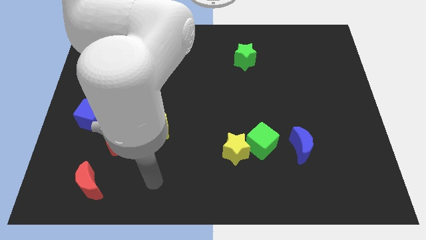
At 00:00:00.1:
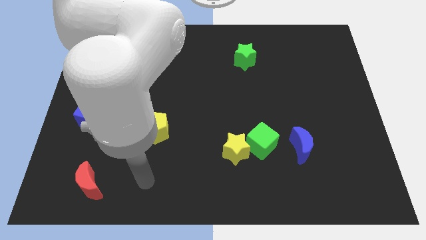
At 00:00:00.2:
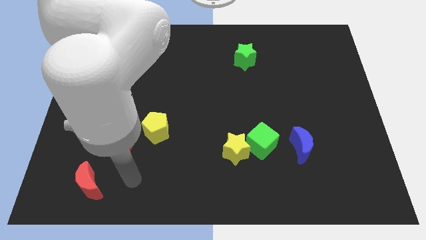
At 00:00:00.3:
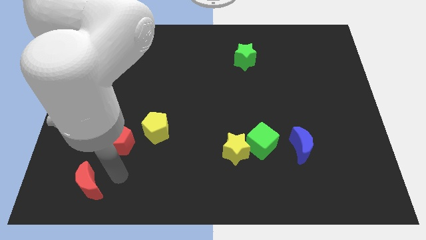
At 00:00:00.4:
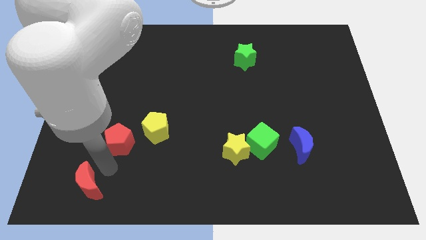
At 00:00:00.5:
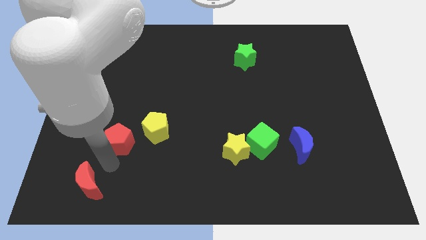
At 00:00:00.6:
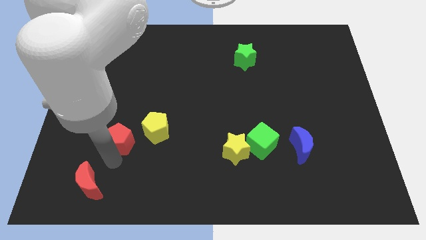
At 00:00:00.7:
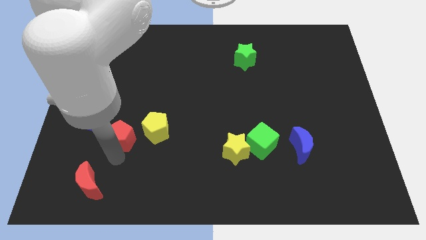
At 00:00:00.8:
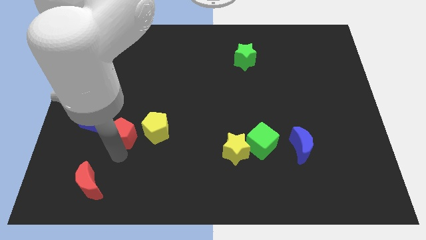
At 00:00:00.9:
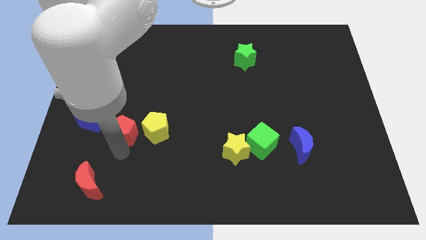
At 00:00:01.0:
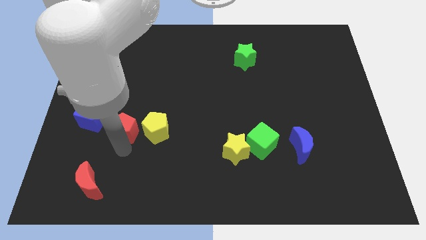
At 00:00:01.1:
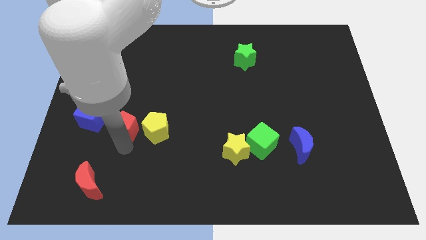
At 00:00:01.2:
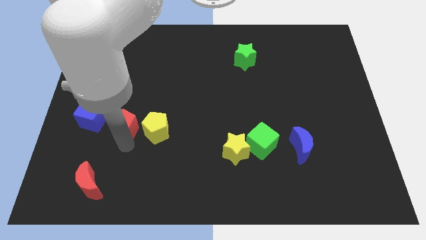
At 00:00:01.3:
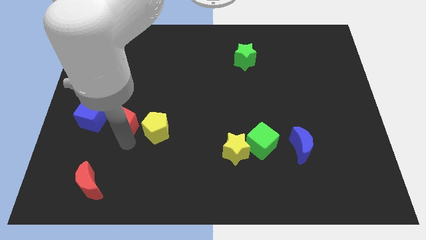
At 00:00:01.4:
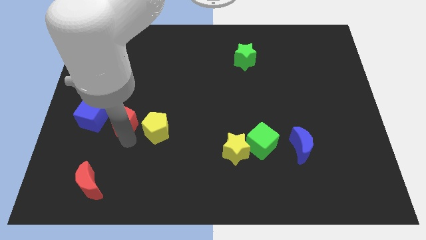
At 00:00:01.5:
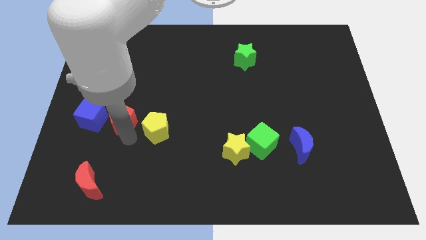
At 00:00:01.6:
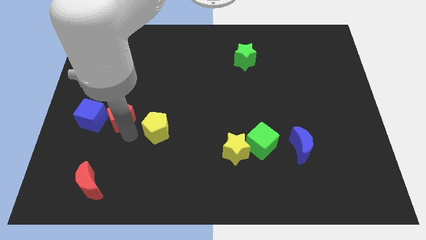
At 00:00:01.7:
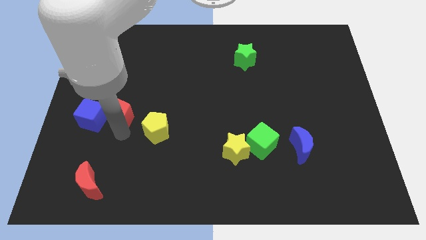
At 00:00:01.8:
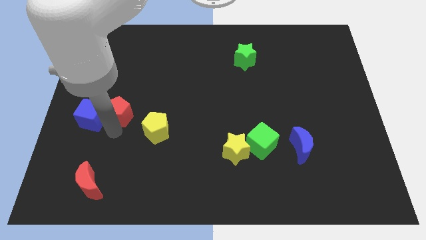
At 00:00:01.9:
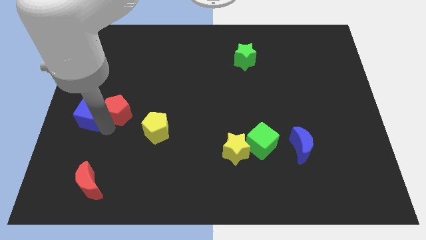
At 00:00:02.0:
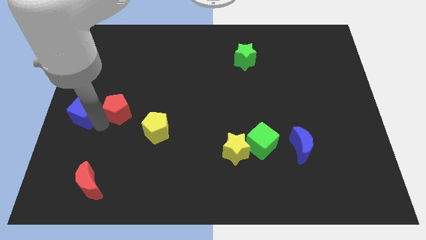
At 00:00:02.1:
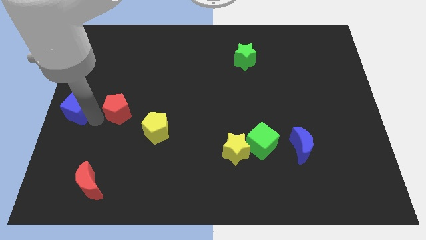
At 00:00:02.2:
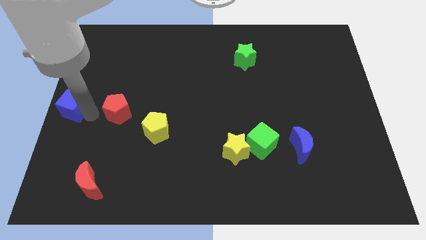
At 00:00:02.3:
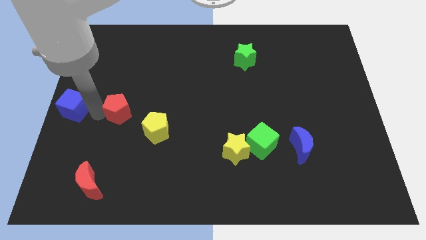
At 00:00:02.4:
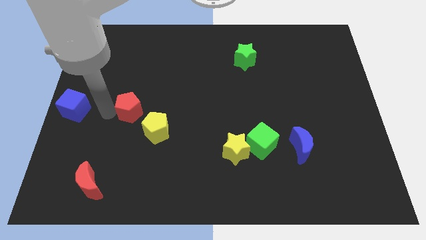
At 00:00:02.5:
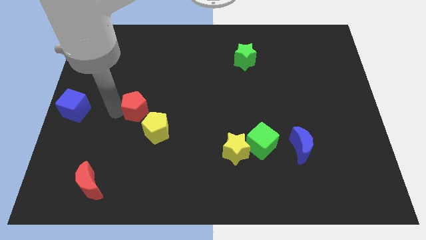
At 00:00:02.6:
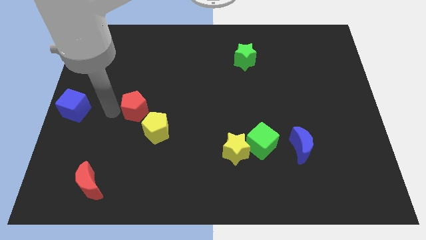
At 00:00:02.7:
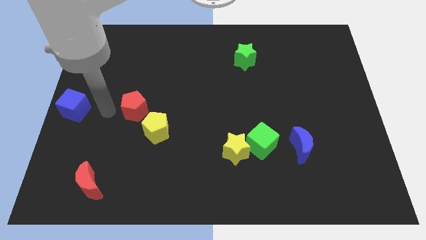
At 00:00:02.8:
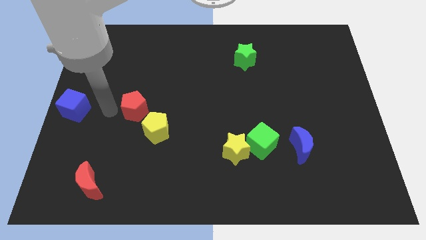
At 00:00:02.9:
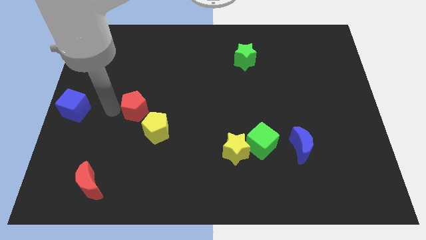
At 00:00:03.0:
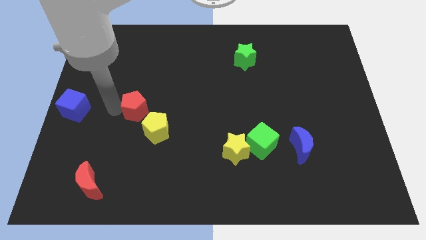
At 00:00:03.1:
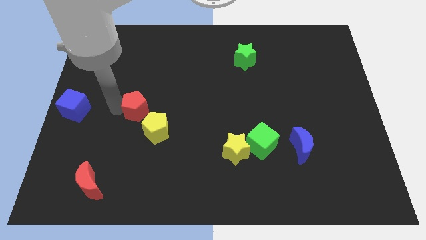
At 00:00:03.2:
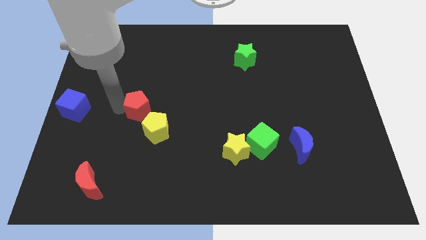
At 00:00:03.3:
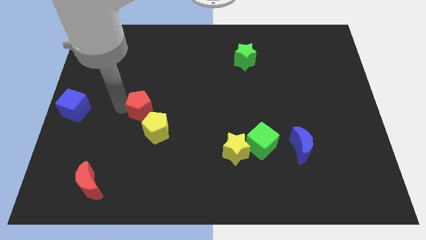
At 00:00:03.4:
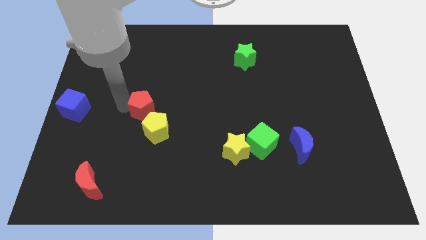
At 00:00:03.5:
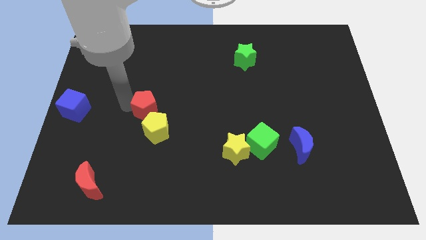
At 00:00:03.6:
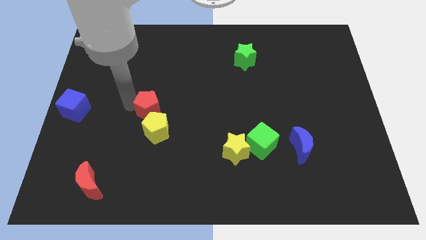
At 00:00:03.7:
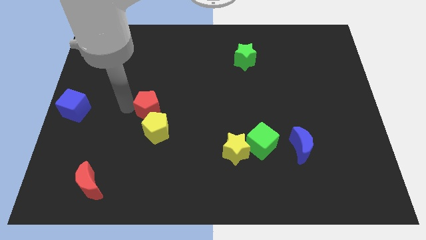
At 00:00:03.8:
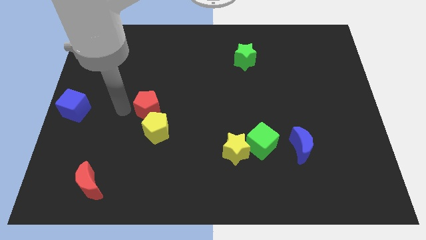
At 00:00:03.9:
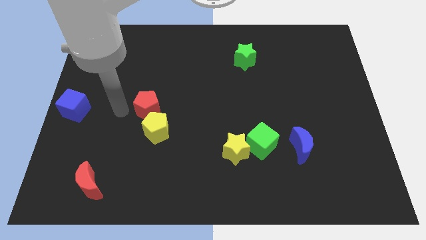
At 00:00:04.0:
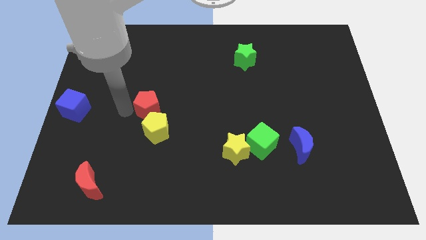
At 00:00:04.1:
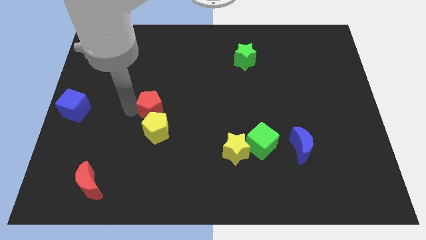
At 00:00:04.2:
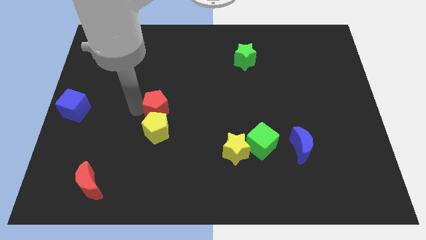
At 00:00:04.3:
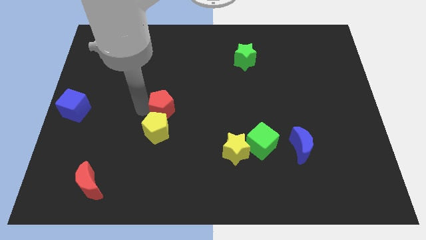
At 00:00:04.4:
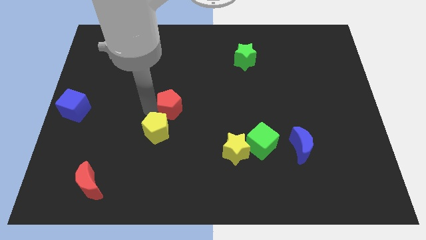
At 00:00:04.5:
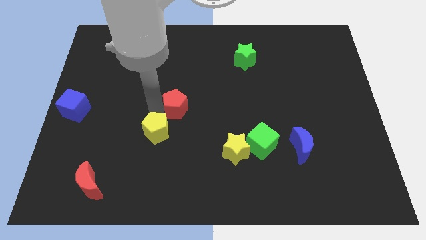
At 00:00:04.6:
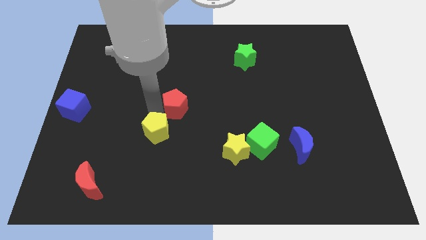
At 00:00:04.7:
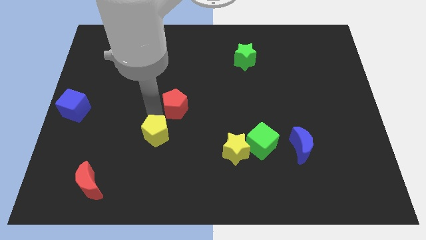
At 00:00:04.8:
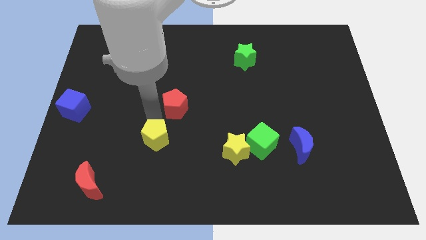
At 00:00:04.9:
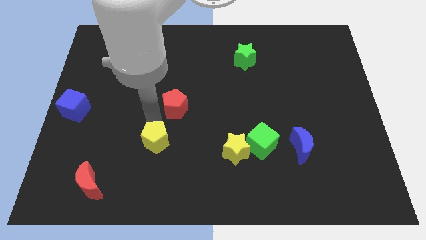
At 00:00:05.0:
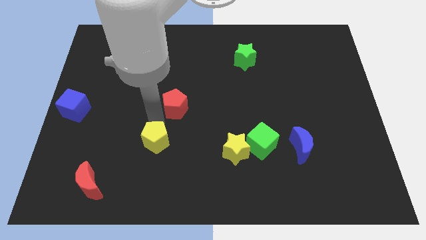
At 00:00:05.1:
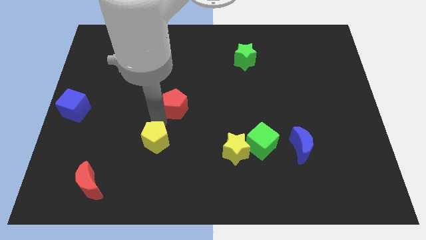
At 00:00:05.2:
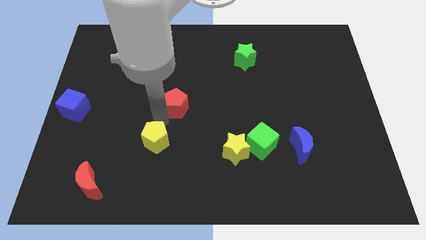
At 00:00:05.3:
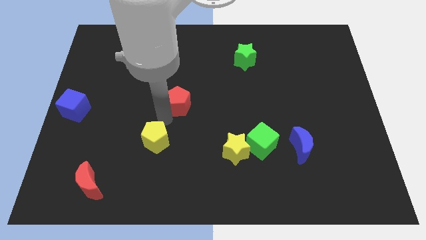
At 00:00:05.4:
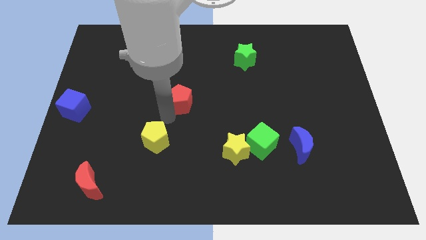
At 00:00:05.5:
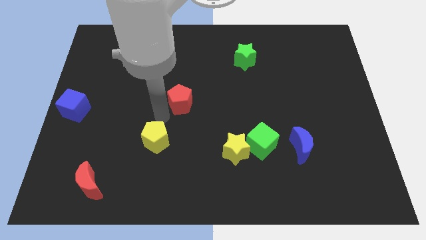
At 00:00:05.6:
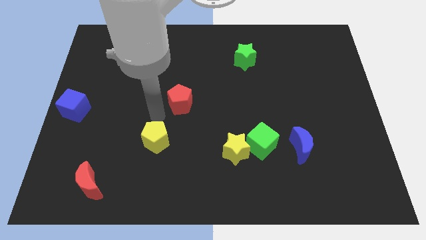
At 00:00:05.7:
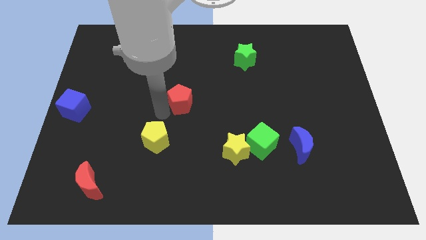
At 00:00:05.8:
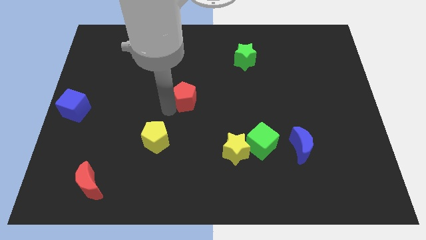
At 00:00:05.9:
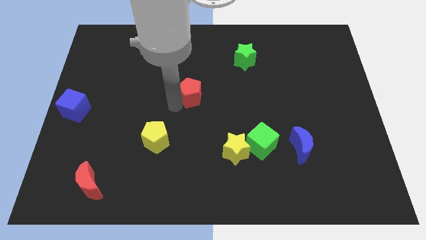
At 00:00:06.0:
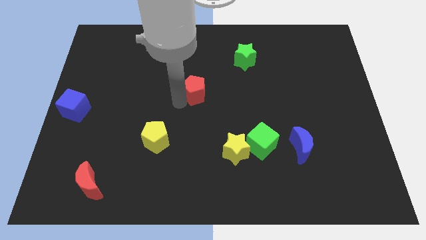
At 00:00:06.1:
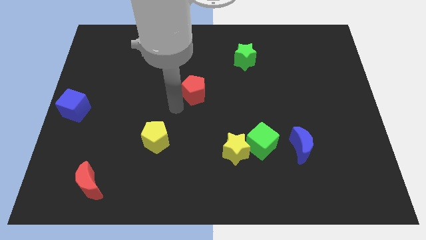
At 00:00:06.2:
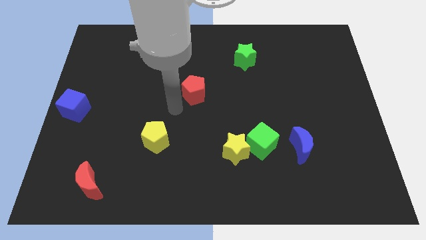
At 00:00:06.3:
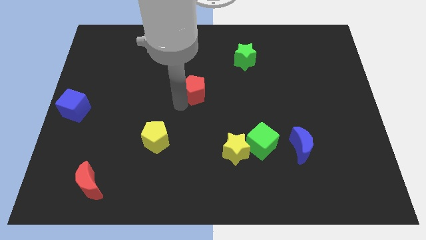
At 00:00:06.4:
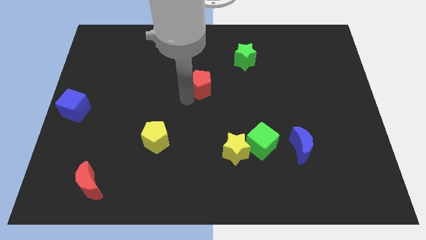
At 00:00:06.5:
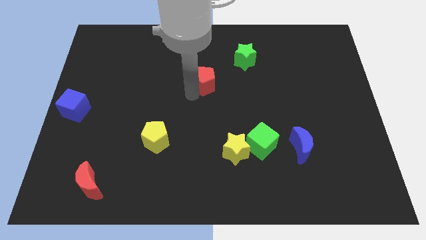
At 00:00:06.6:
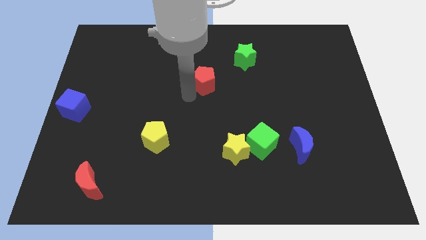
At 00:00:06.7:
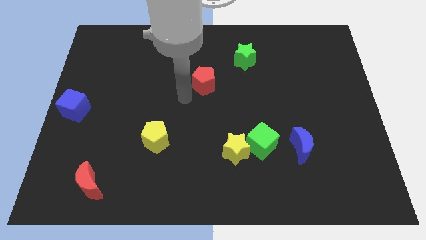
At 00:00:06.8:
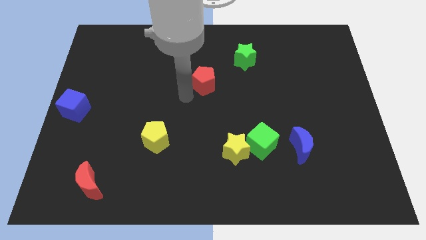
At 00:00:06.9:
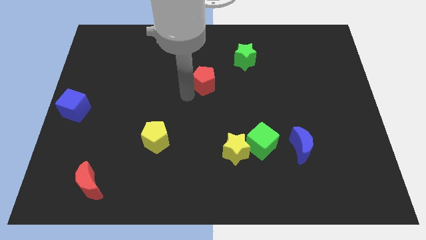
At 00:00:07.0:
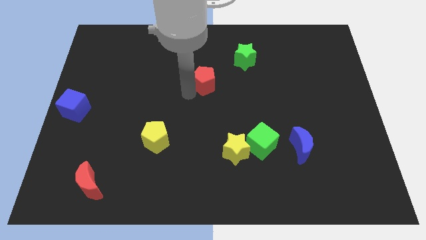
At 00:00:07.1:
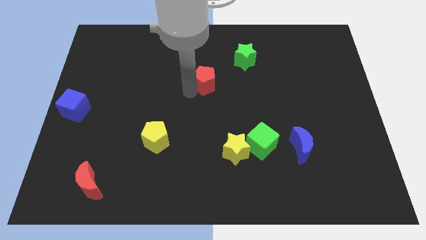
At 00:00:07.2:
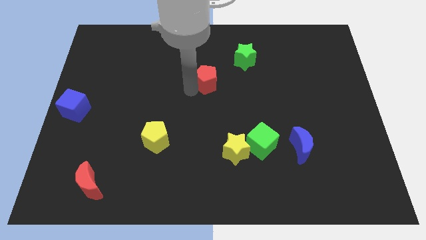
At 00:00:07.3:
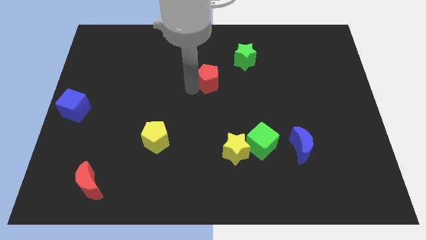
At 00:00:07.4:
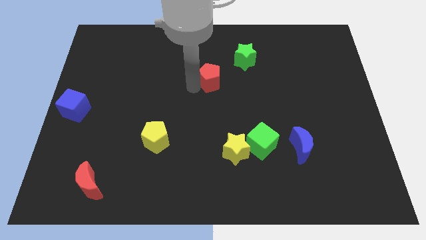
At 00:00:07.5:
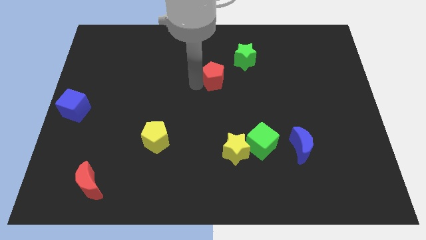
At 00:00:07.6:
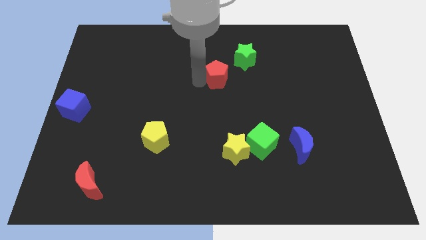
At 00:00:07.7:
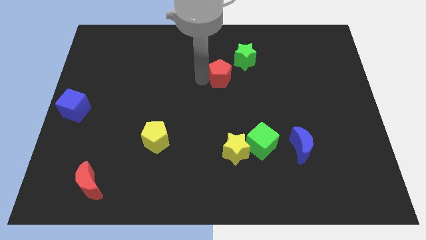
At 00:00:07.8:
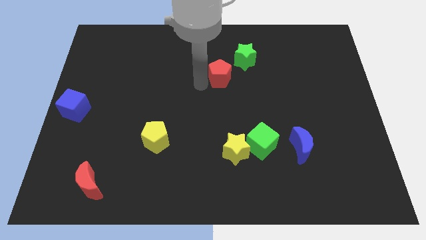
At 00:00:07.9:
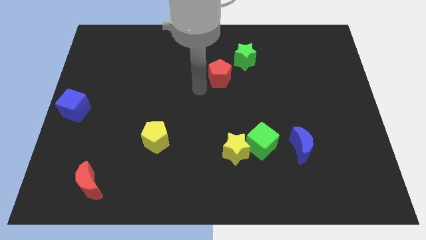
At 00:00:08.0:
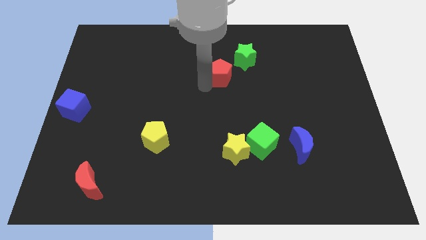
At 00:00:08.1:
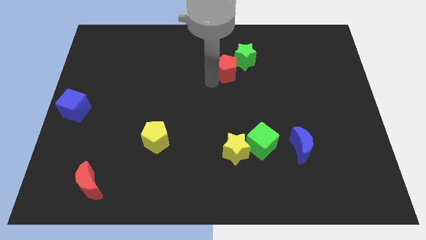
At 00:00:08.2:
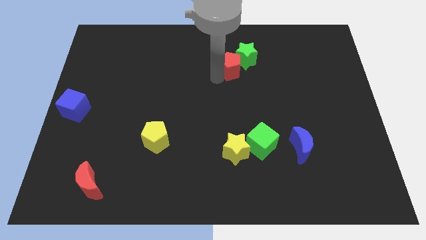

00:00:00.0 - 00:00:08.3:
slide the red pentagon to the green star
